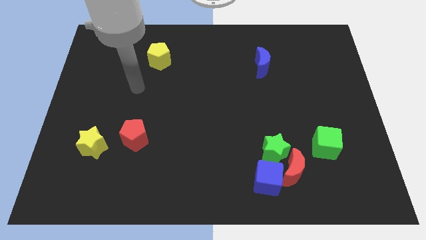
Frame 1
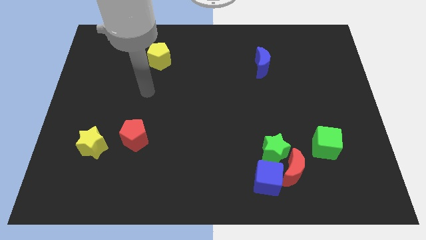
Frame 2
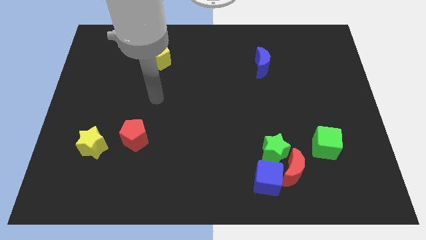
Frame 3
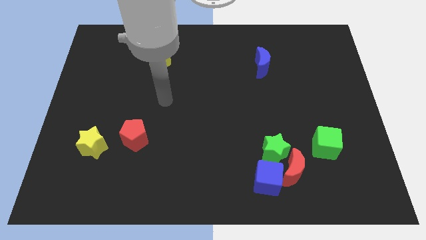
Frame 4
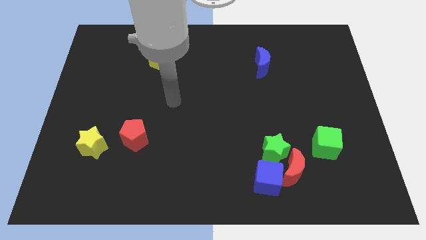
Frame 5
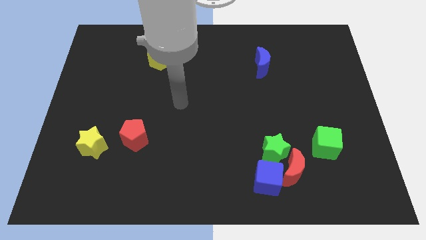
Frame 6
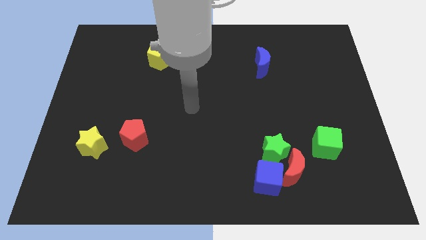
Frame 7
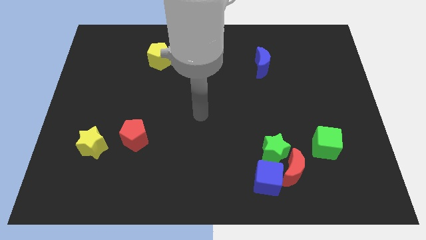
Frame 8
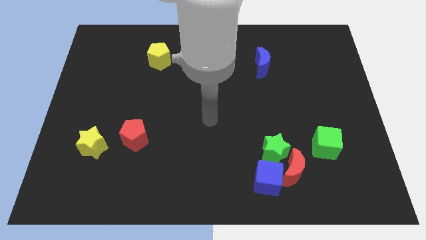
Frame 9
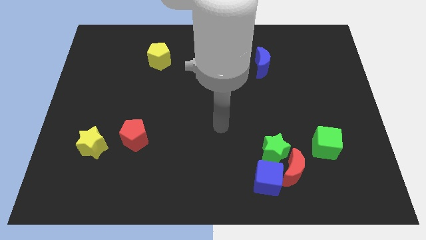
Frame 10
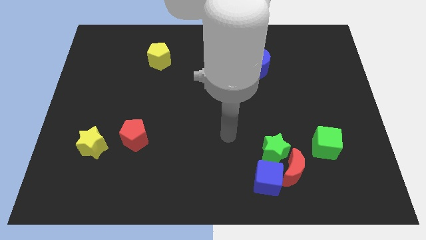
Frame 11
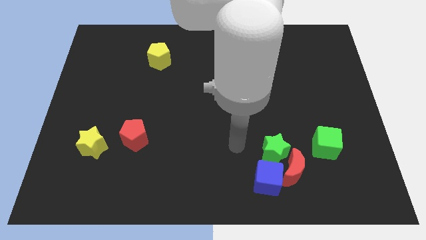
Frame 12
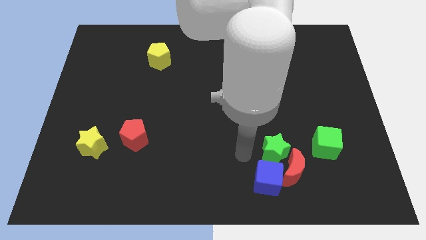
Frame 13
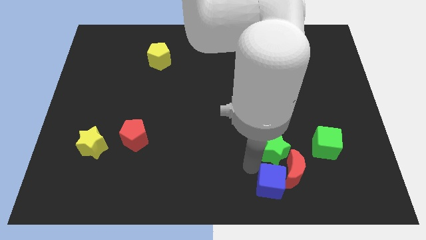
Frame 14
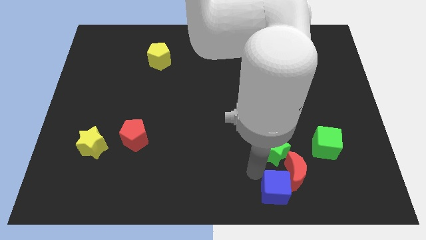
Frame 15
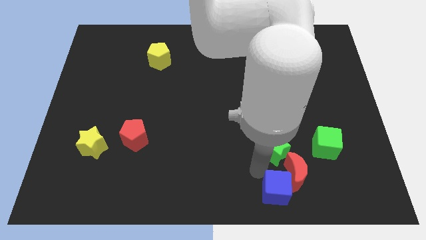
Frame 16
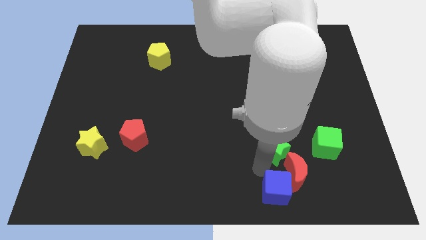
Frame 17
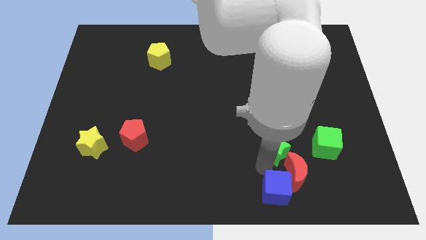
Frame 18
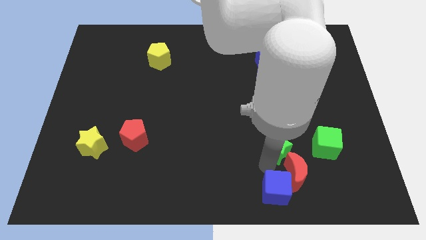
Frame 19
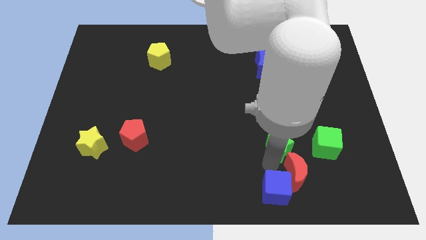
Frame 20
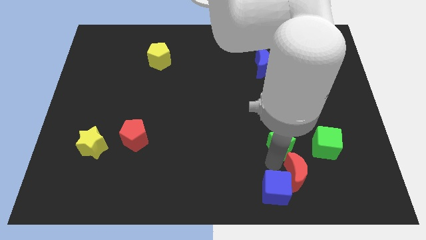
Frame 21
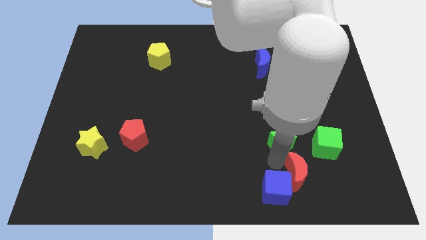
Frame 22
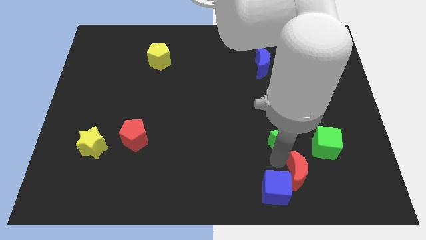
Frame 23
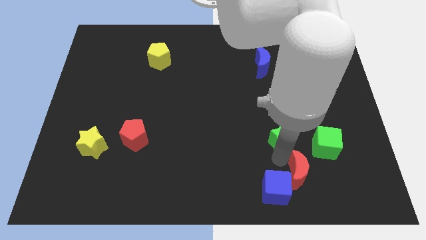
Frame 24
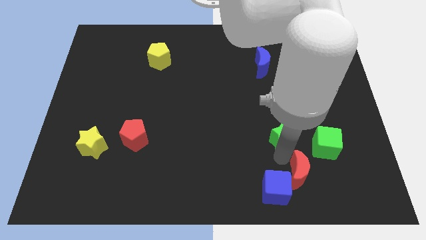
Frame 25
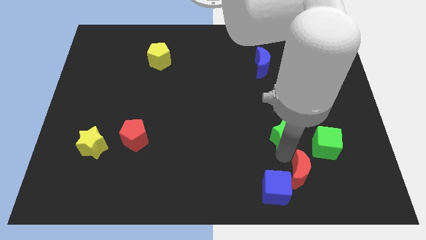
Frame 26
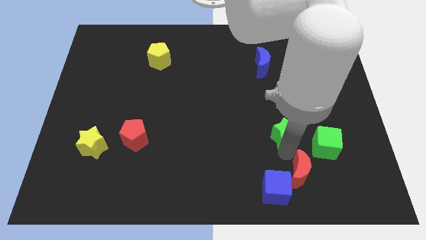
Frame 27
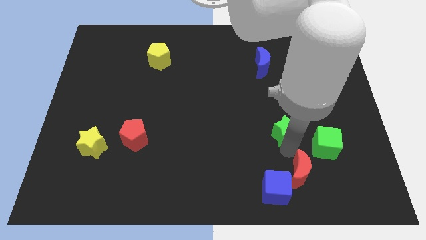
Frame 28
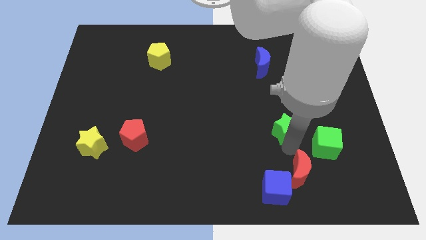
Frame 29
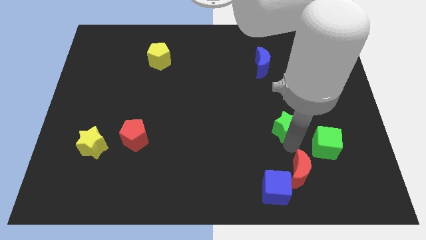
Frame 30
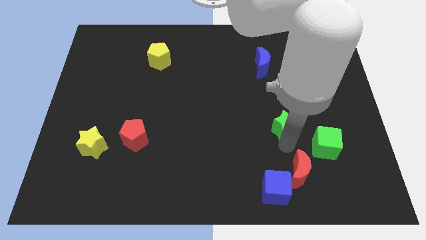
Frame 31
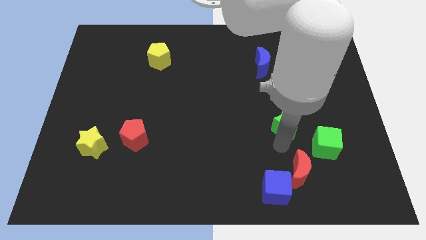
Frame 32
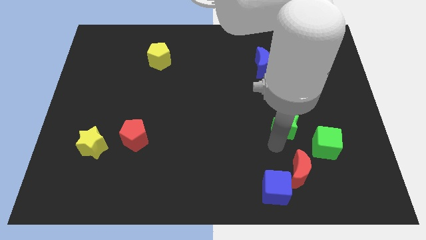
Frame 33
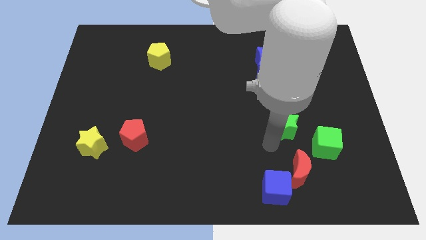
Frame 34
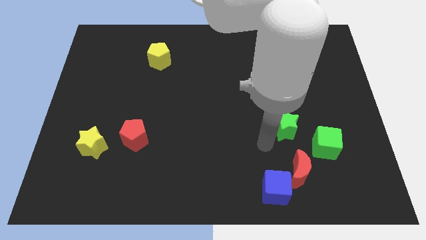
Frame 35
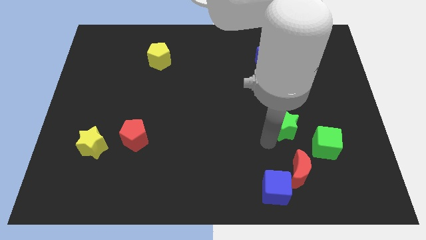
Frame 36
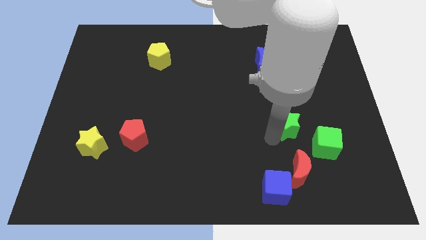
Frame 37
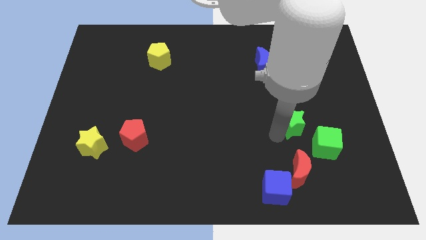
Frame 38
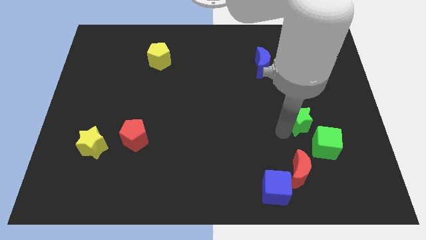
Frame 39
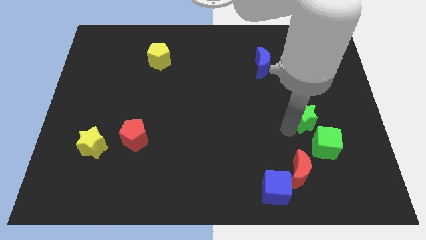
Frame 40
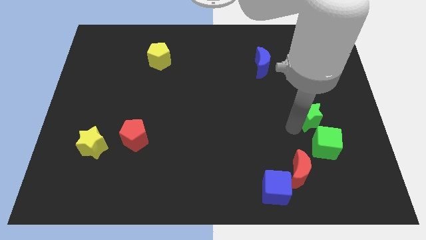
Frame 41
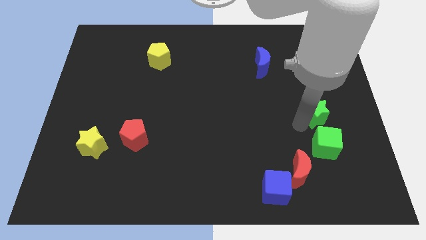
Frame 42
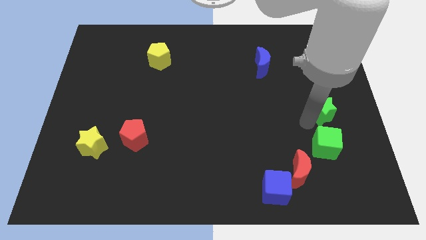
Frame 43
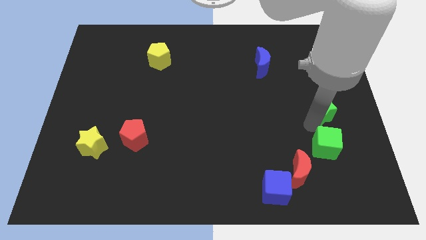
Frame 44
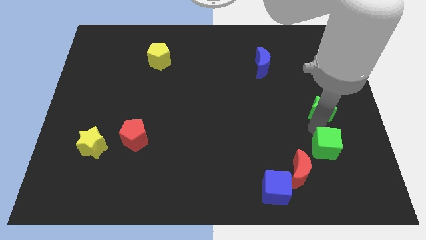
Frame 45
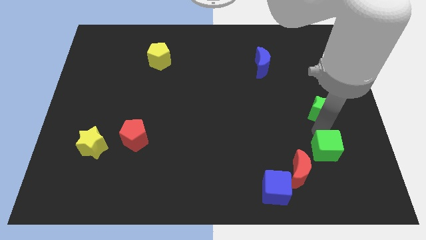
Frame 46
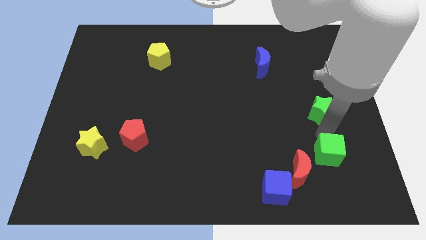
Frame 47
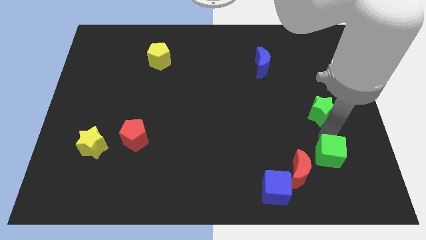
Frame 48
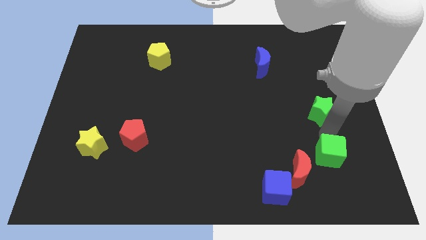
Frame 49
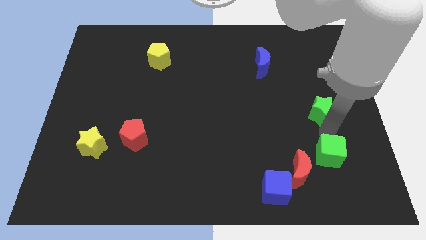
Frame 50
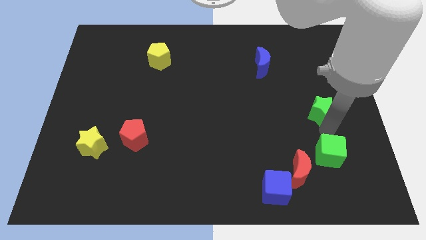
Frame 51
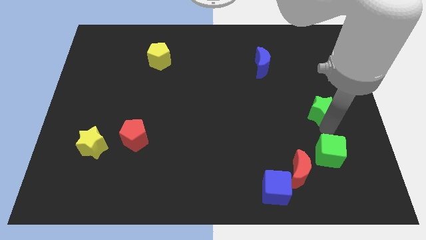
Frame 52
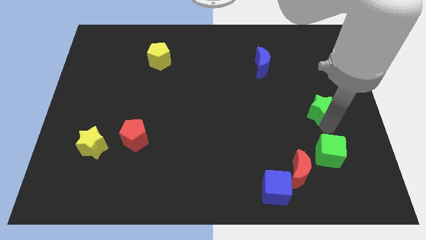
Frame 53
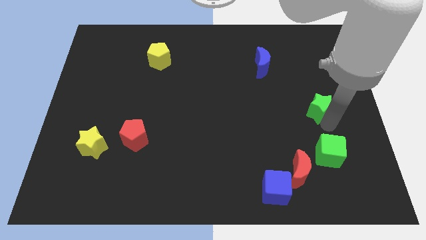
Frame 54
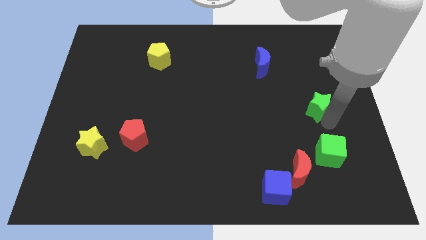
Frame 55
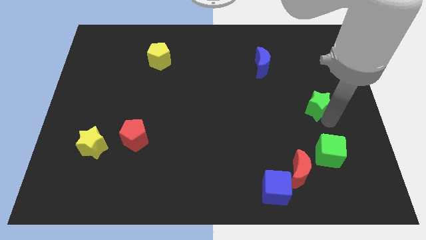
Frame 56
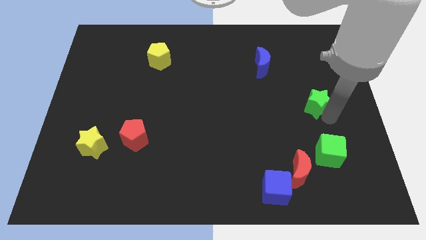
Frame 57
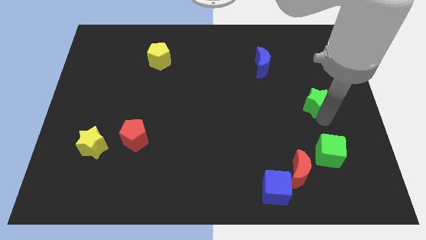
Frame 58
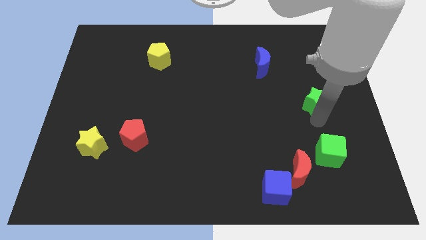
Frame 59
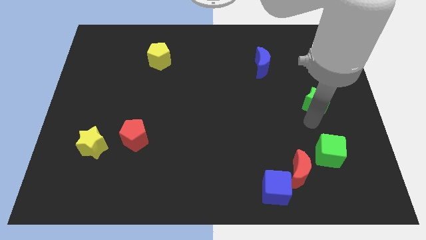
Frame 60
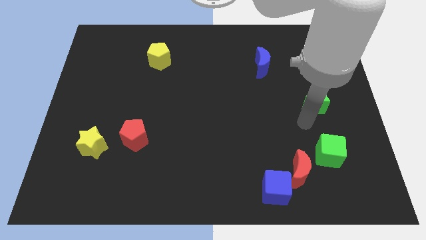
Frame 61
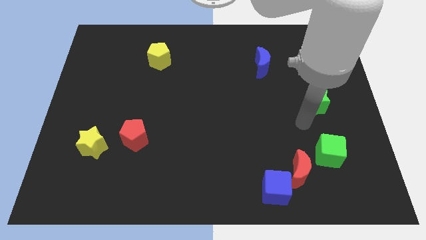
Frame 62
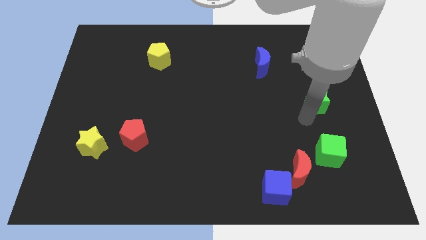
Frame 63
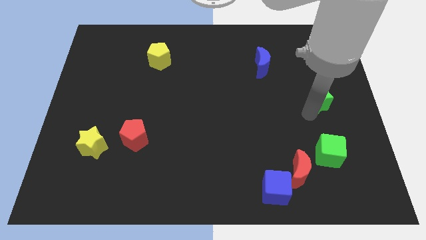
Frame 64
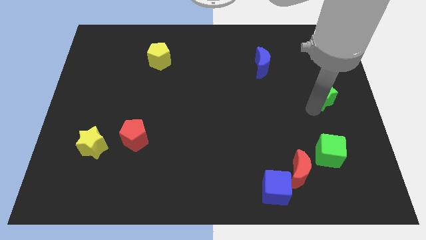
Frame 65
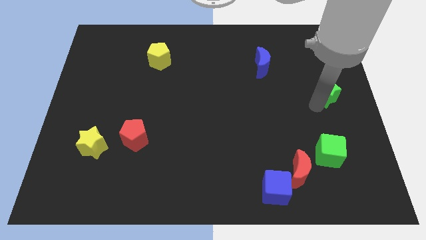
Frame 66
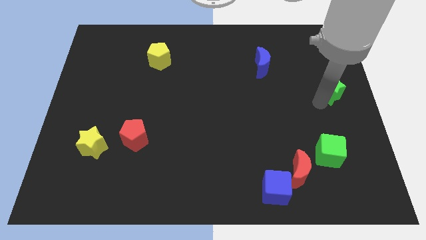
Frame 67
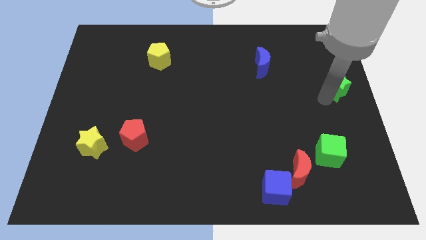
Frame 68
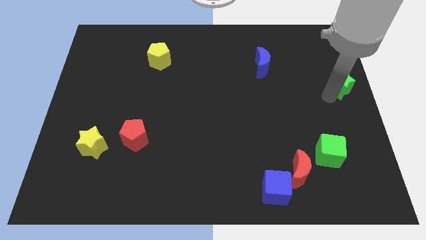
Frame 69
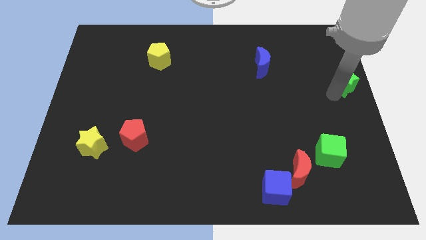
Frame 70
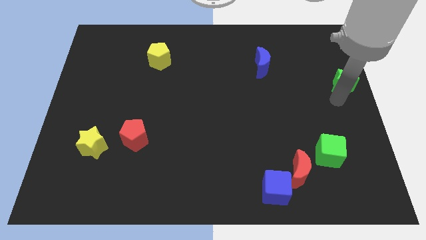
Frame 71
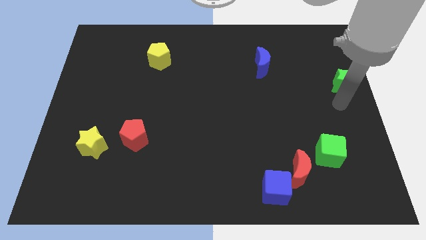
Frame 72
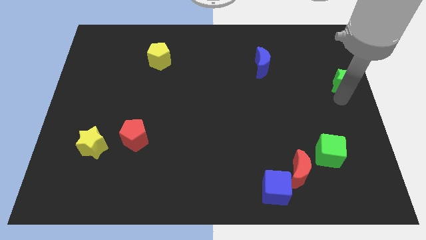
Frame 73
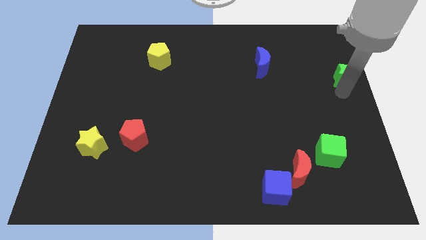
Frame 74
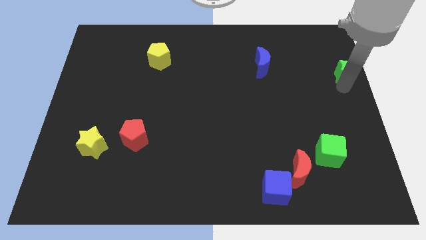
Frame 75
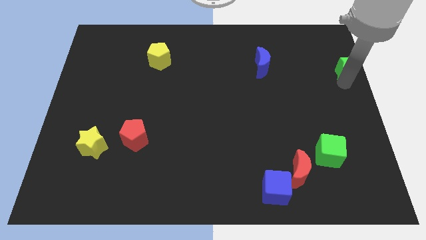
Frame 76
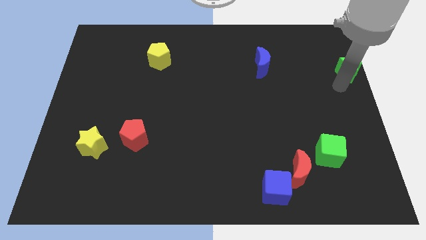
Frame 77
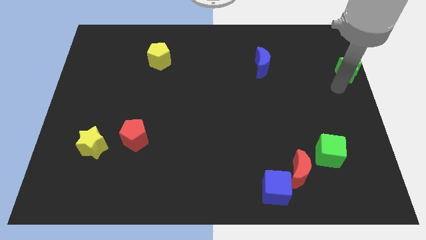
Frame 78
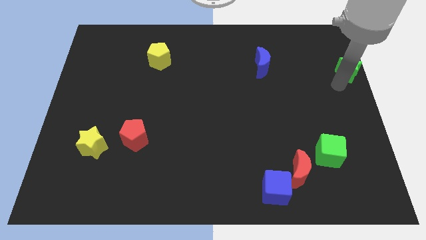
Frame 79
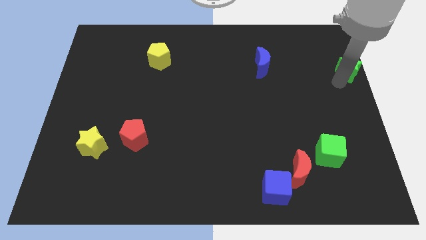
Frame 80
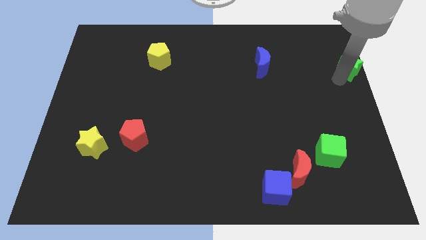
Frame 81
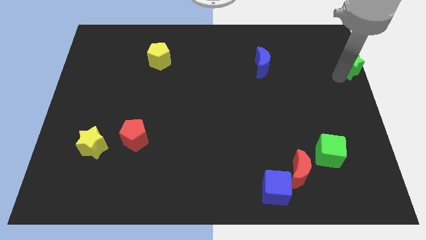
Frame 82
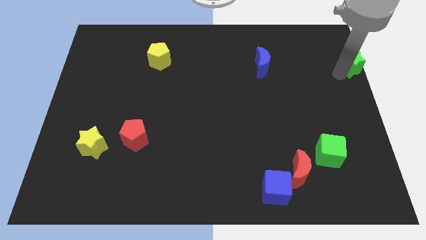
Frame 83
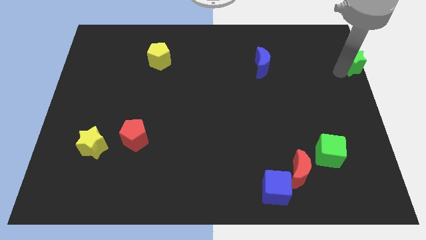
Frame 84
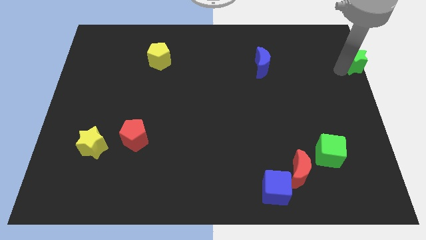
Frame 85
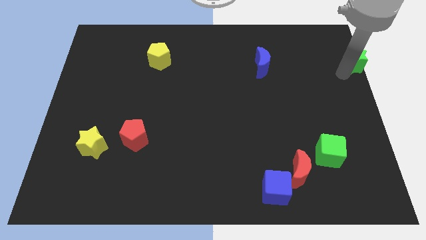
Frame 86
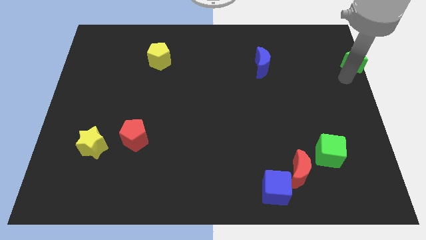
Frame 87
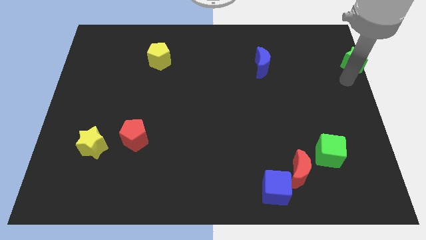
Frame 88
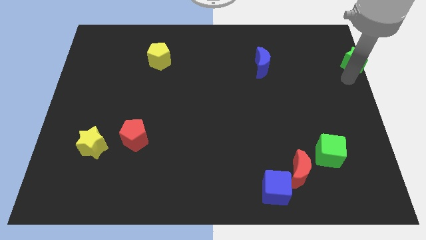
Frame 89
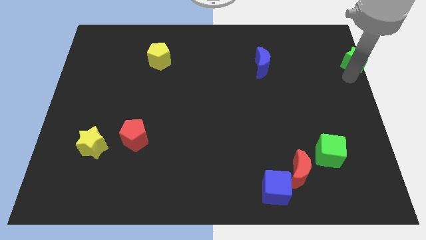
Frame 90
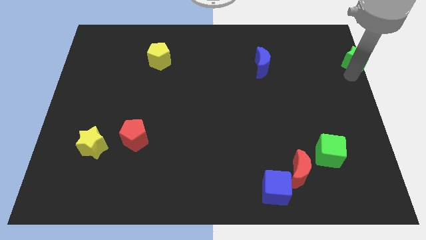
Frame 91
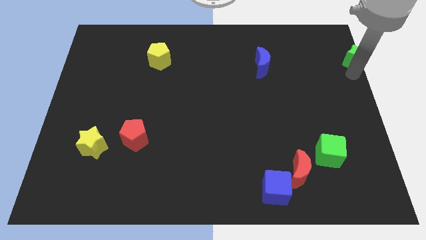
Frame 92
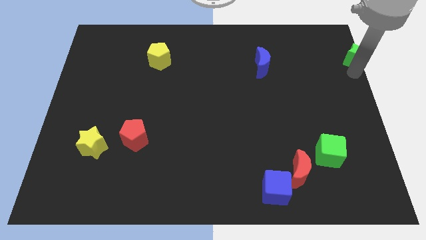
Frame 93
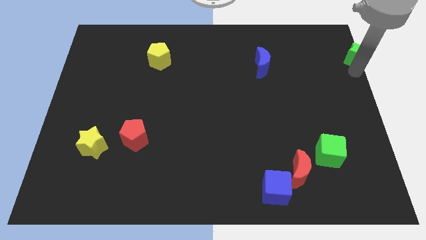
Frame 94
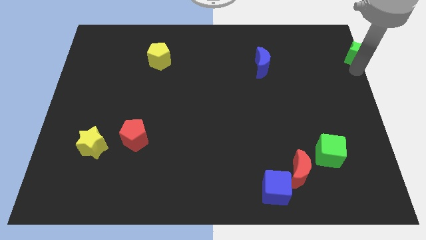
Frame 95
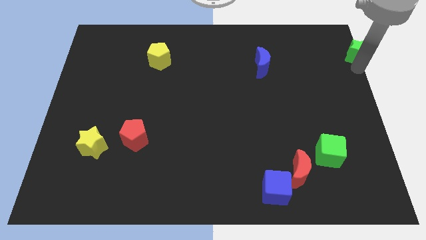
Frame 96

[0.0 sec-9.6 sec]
push the green star to the top right of the board
